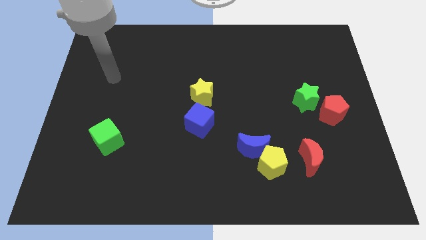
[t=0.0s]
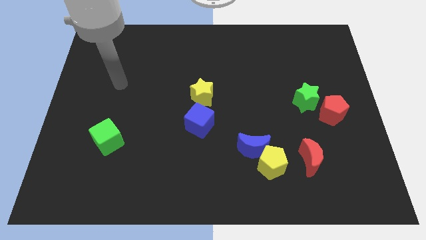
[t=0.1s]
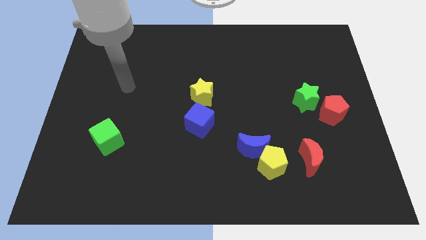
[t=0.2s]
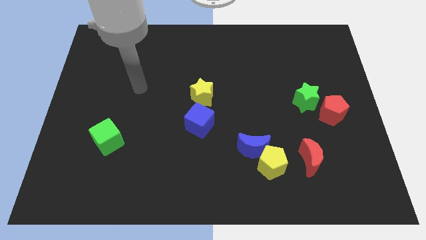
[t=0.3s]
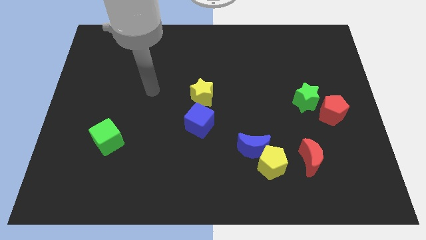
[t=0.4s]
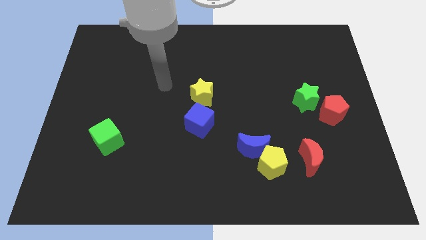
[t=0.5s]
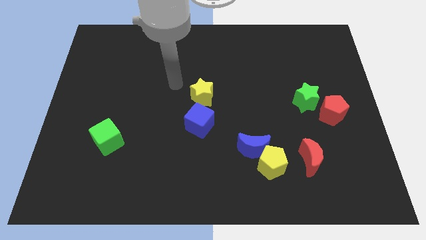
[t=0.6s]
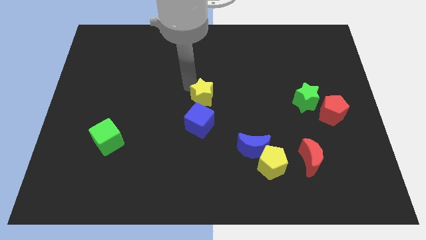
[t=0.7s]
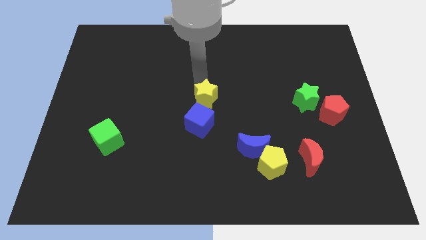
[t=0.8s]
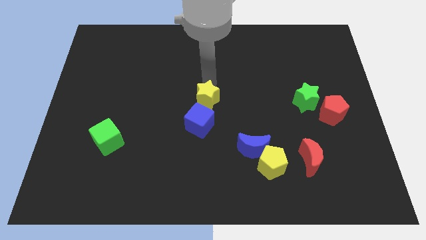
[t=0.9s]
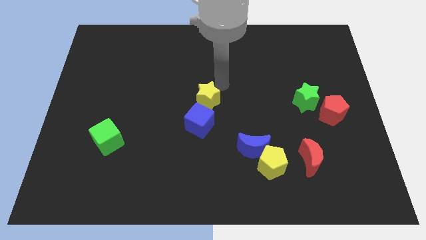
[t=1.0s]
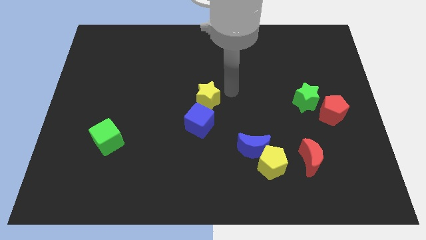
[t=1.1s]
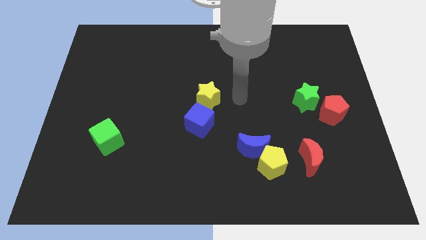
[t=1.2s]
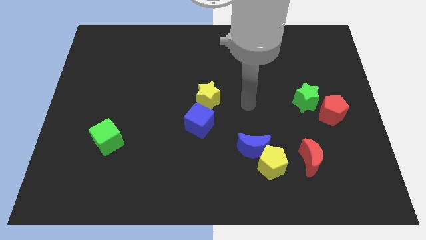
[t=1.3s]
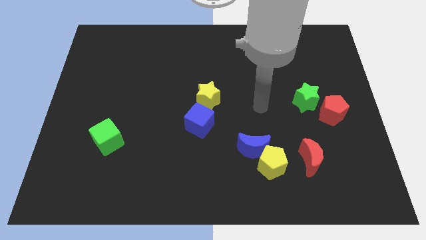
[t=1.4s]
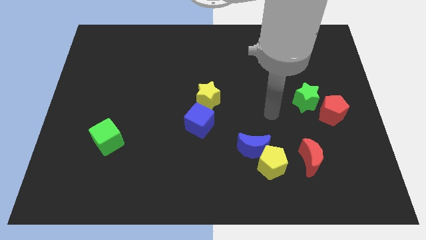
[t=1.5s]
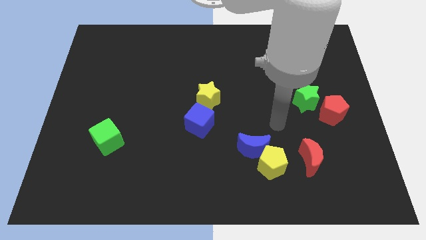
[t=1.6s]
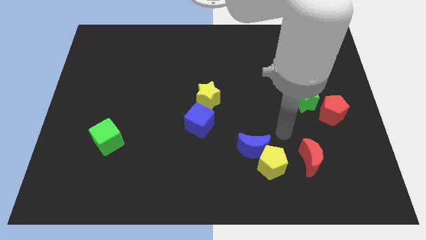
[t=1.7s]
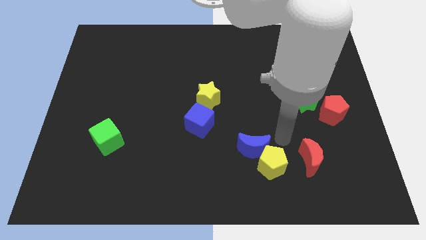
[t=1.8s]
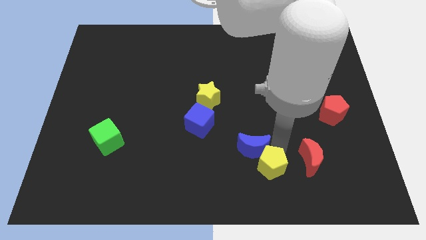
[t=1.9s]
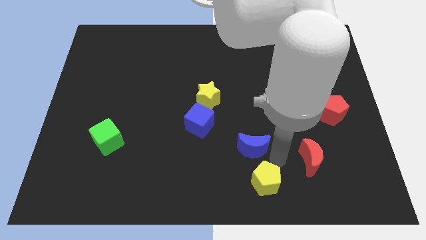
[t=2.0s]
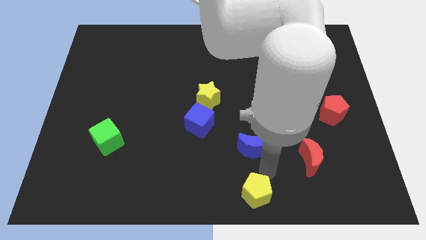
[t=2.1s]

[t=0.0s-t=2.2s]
separate the blue moon from the yellow pentagon

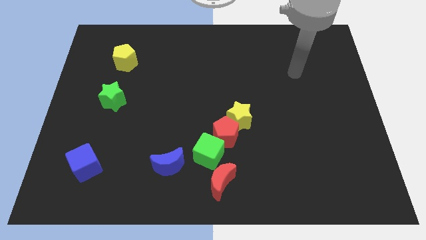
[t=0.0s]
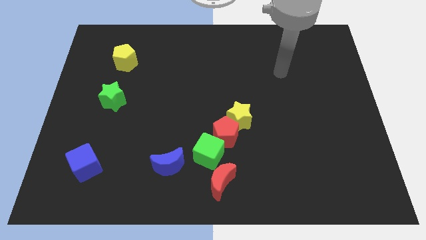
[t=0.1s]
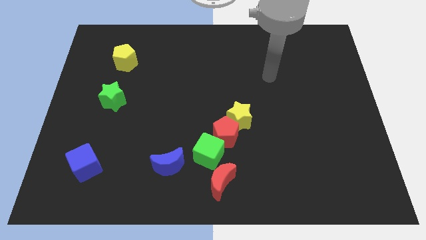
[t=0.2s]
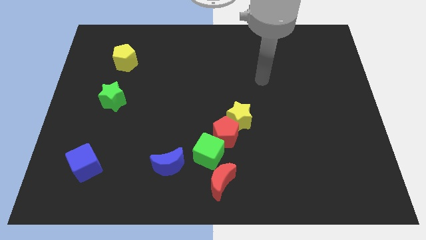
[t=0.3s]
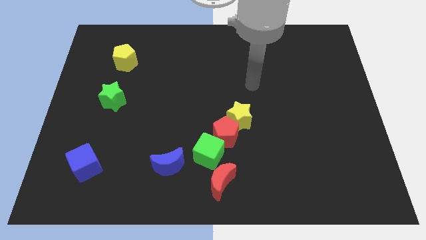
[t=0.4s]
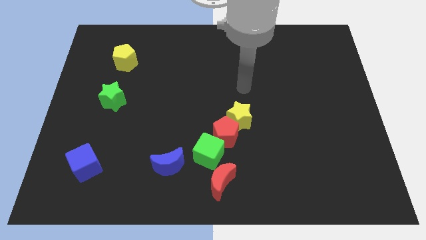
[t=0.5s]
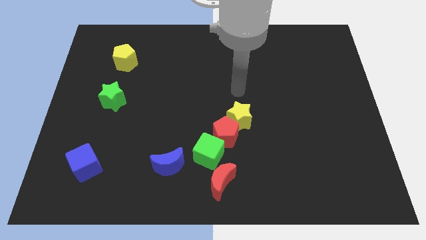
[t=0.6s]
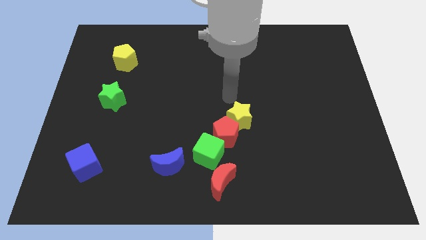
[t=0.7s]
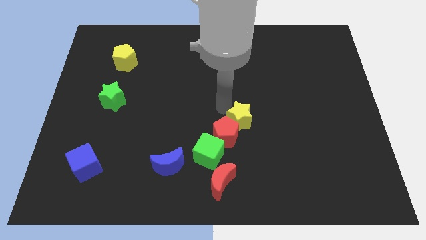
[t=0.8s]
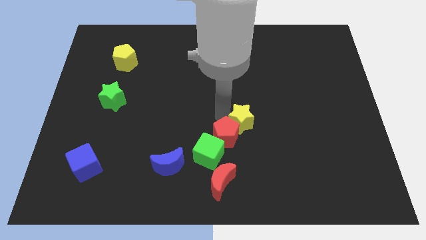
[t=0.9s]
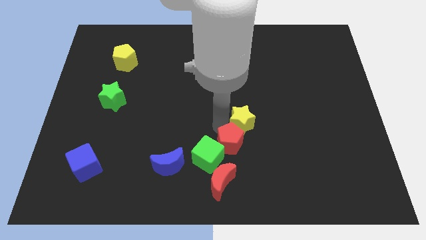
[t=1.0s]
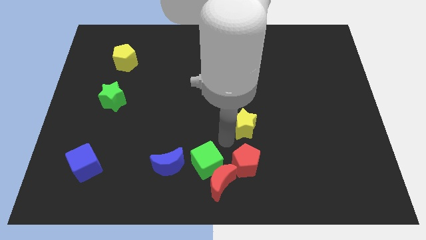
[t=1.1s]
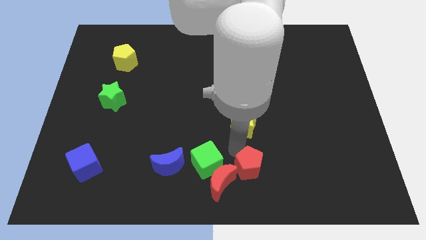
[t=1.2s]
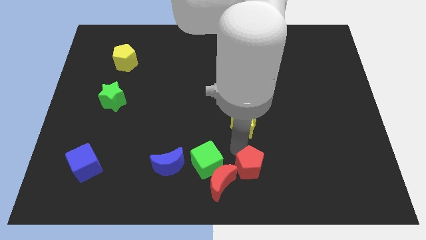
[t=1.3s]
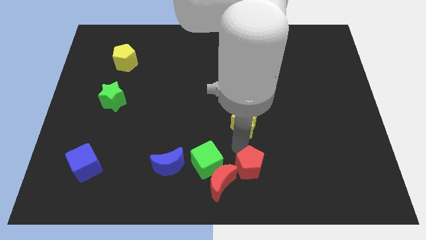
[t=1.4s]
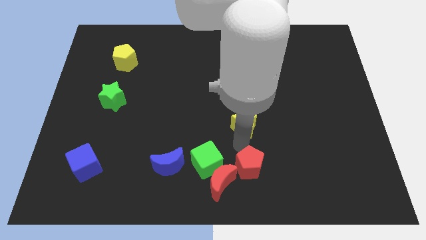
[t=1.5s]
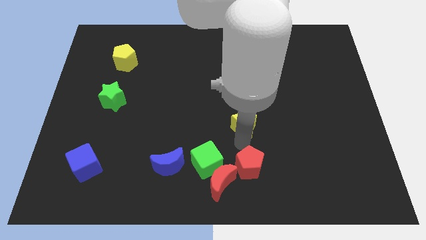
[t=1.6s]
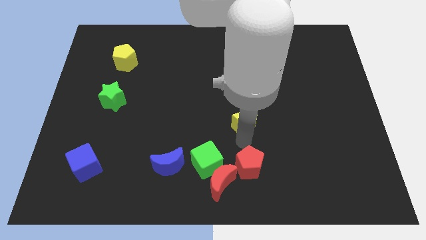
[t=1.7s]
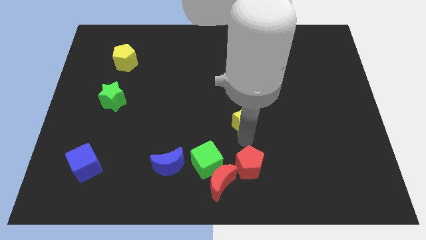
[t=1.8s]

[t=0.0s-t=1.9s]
separate the yellow star from the red pentagon

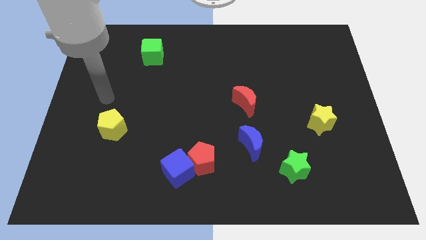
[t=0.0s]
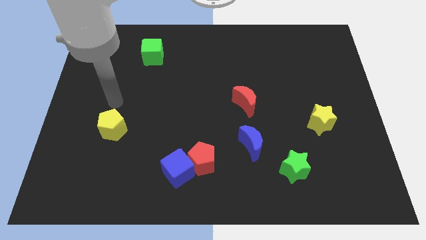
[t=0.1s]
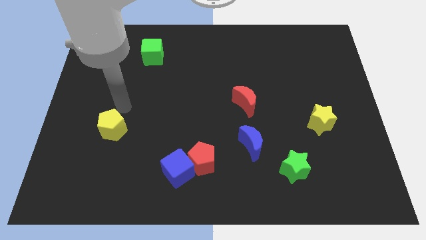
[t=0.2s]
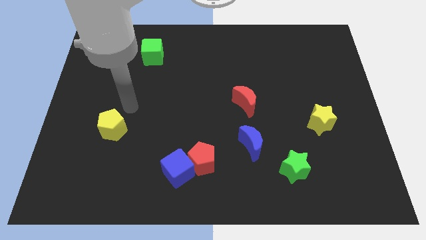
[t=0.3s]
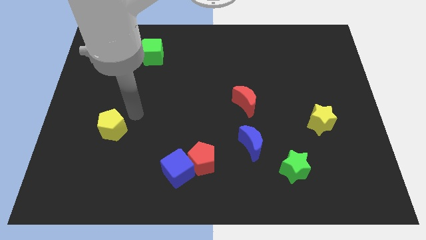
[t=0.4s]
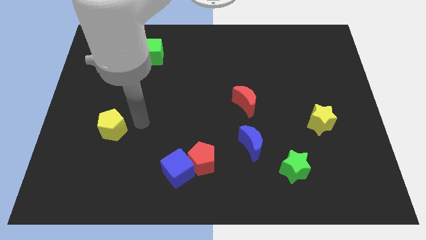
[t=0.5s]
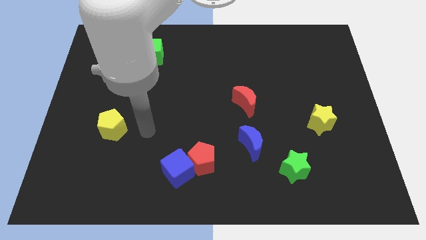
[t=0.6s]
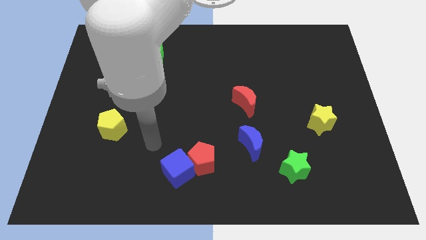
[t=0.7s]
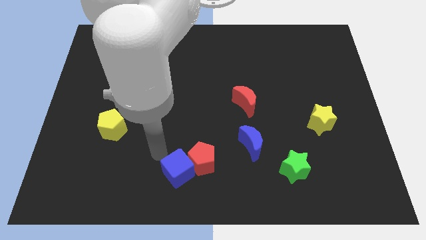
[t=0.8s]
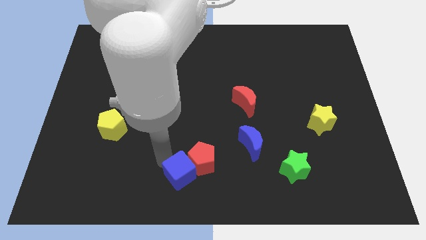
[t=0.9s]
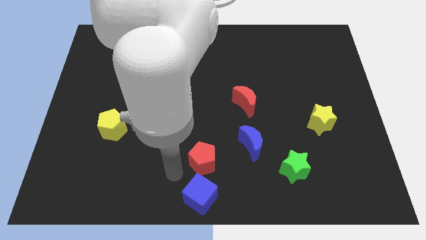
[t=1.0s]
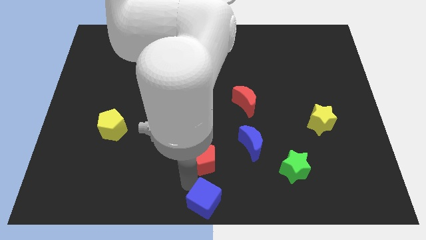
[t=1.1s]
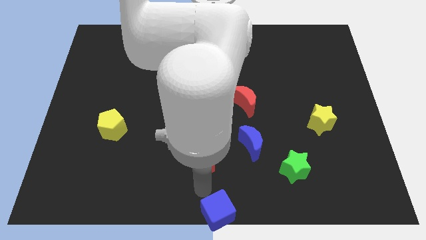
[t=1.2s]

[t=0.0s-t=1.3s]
pull the red pentagon apart from the blue cube

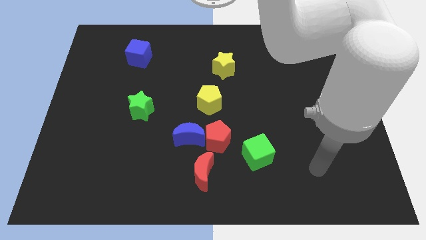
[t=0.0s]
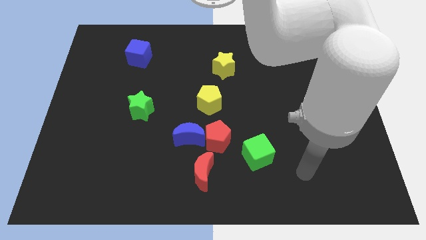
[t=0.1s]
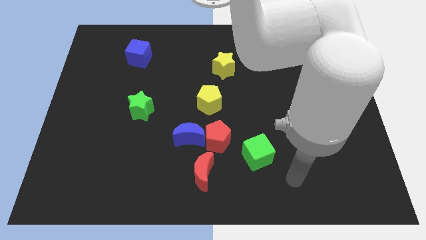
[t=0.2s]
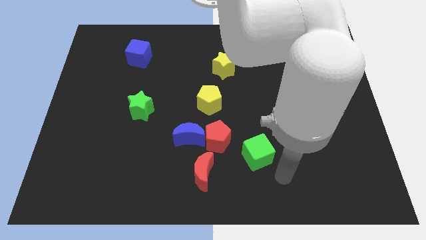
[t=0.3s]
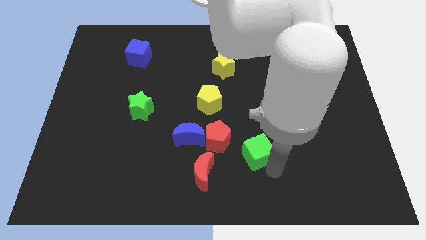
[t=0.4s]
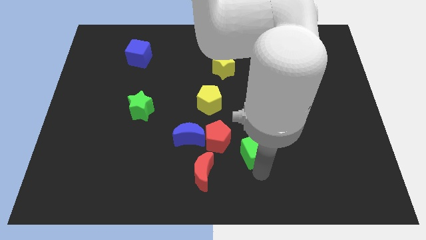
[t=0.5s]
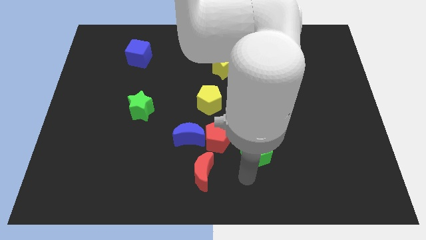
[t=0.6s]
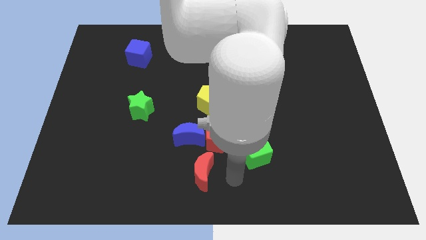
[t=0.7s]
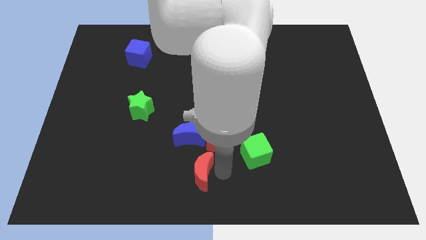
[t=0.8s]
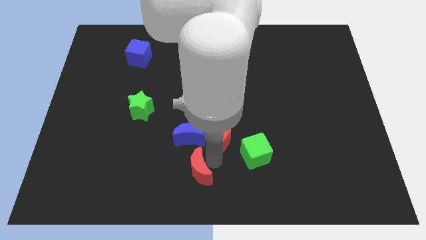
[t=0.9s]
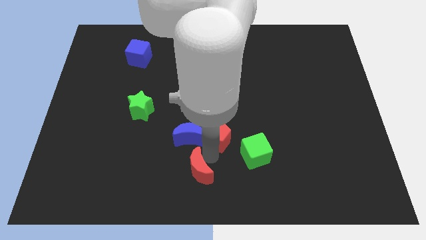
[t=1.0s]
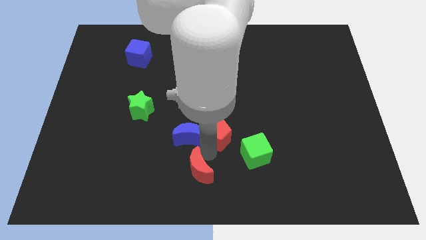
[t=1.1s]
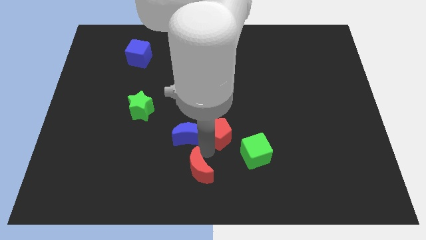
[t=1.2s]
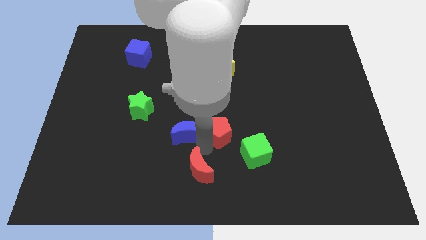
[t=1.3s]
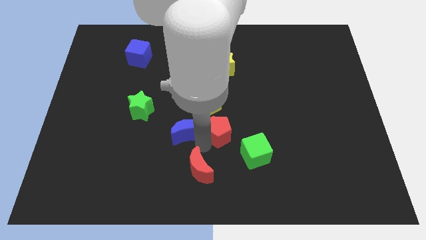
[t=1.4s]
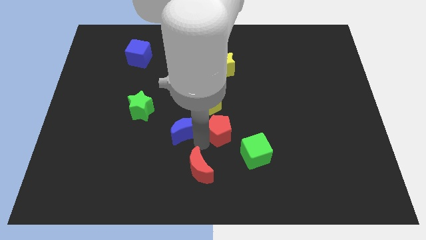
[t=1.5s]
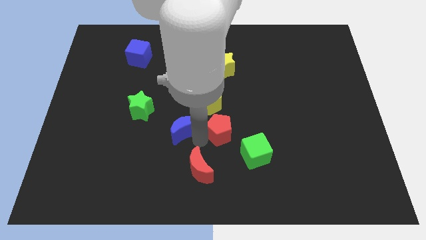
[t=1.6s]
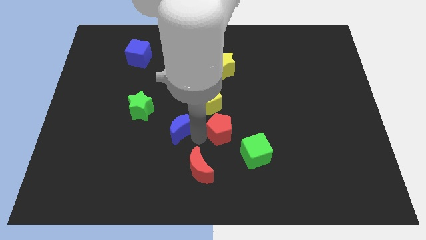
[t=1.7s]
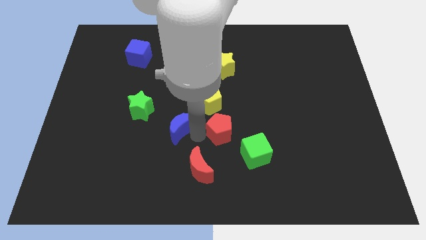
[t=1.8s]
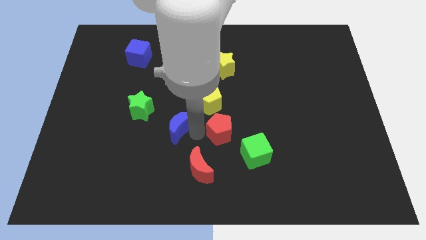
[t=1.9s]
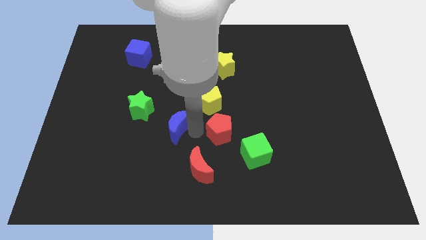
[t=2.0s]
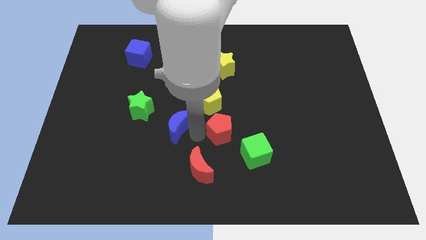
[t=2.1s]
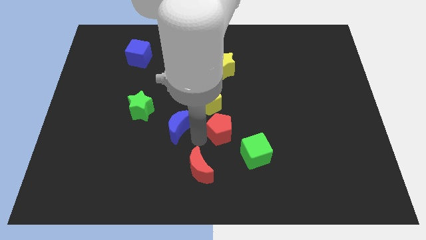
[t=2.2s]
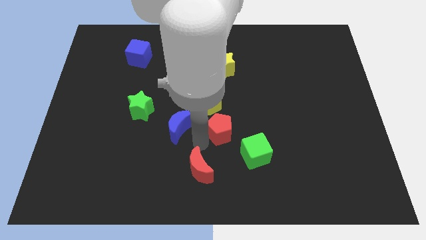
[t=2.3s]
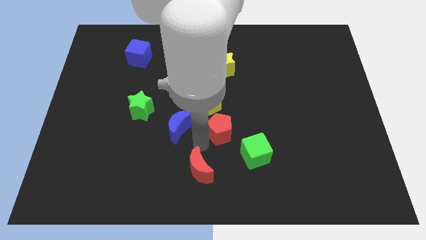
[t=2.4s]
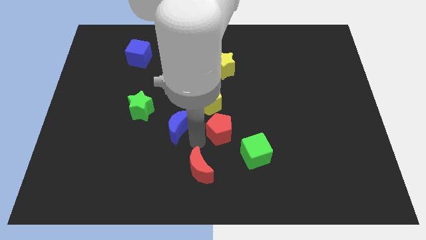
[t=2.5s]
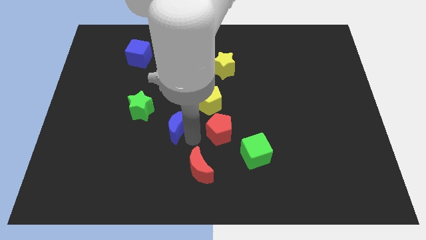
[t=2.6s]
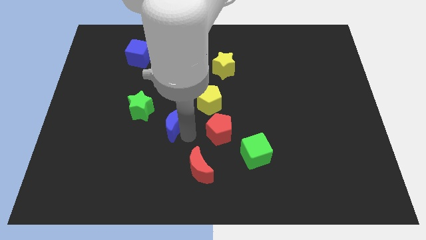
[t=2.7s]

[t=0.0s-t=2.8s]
move the blue moon away from the red pentagon and red moon

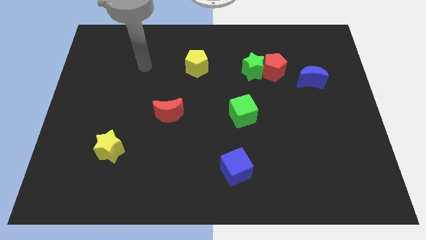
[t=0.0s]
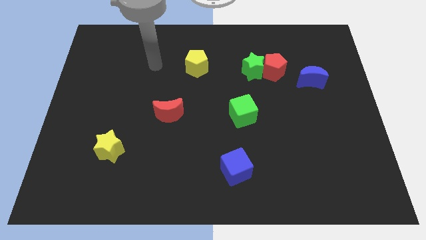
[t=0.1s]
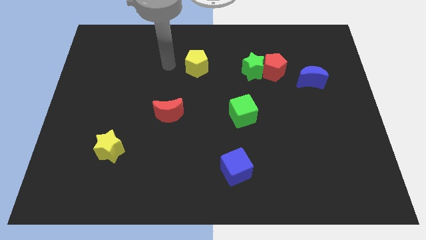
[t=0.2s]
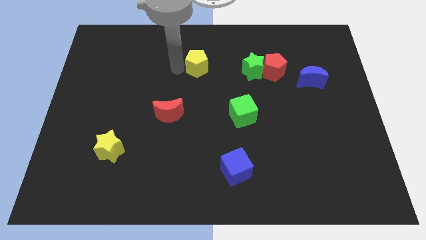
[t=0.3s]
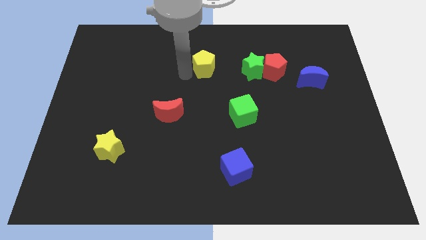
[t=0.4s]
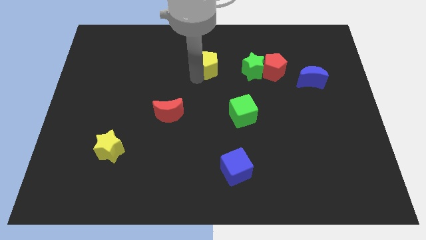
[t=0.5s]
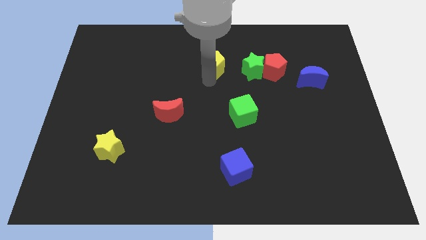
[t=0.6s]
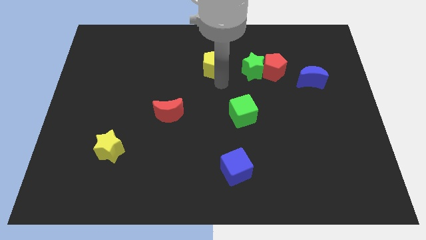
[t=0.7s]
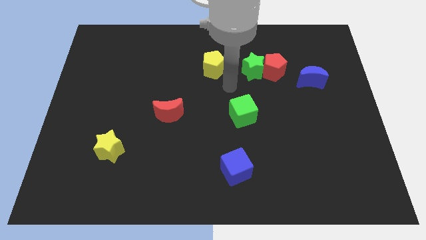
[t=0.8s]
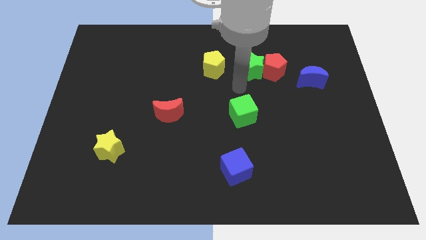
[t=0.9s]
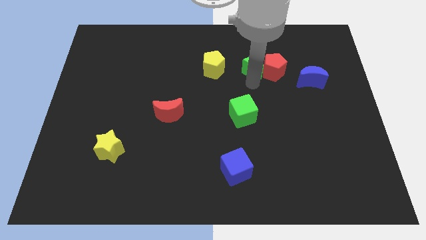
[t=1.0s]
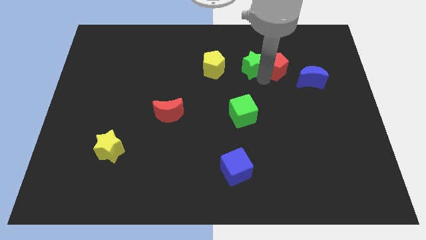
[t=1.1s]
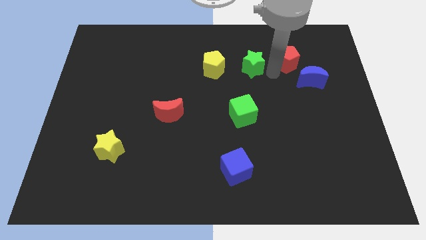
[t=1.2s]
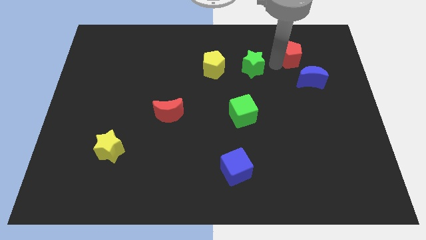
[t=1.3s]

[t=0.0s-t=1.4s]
separate the green star from the red pentagon
